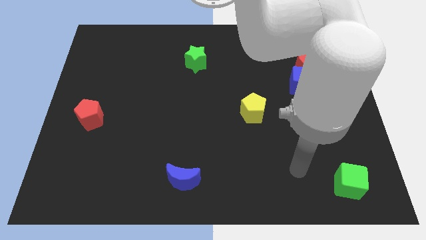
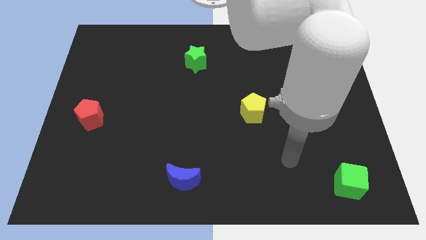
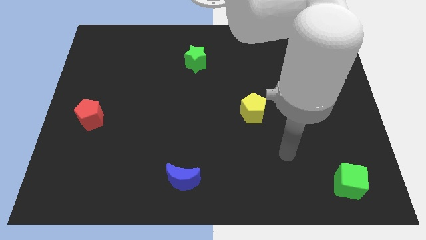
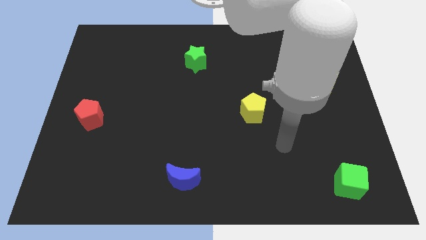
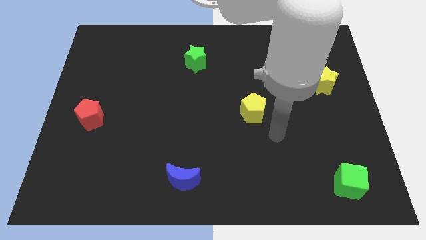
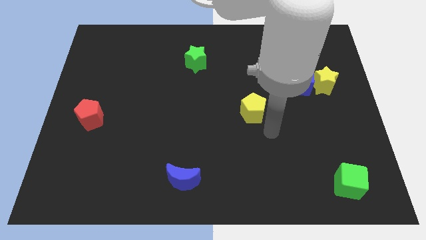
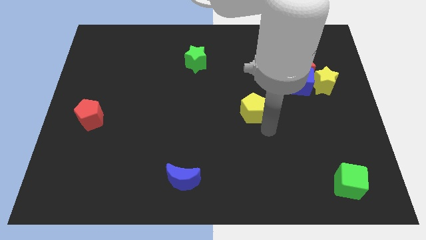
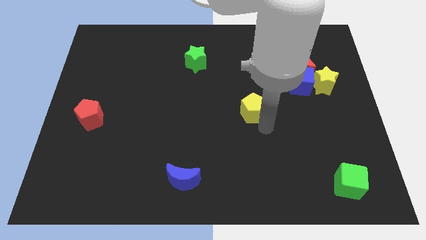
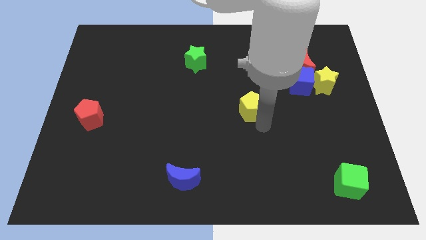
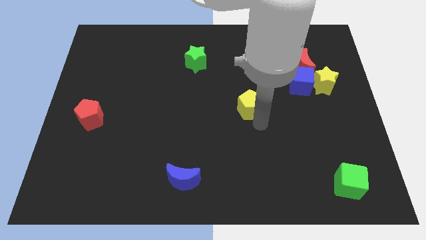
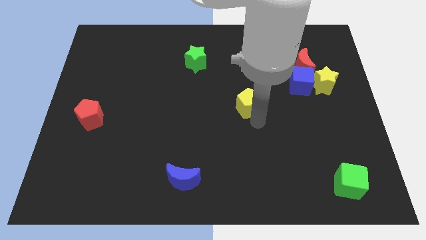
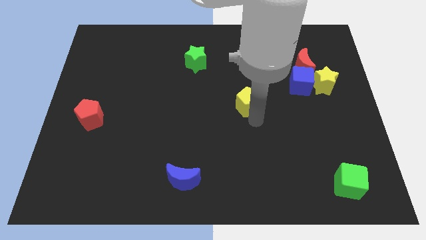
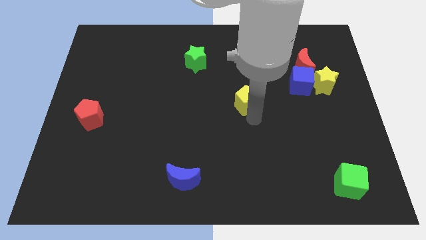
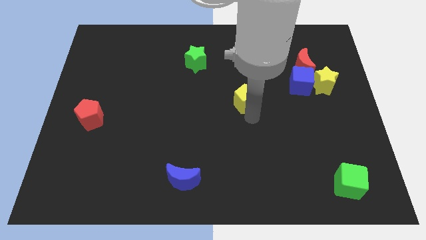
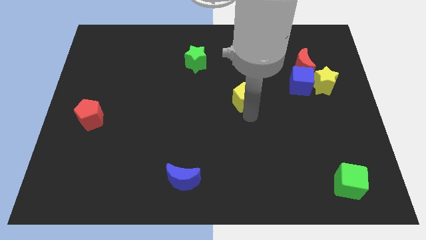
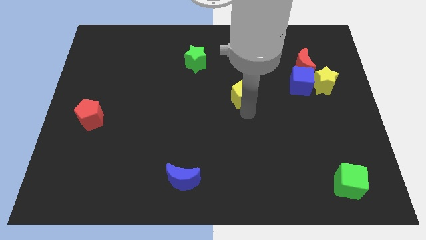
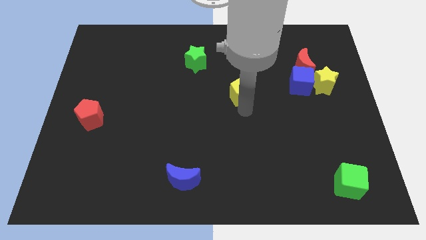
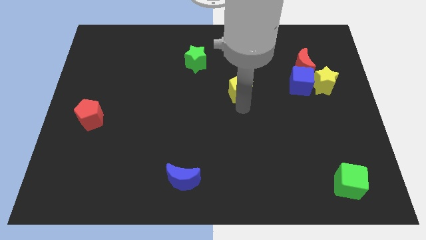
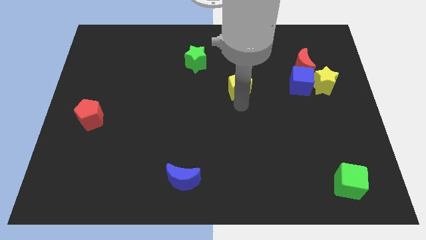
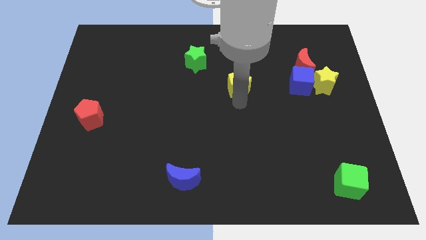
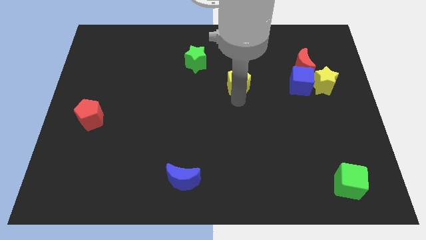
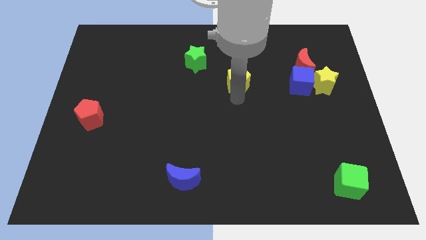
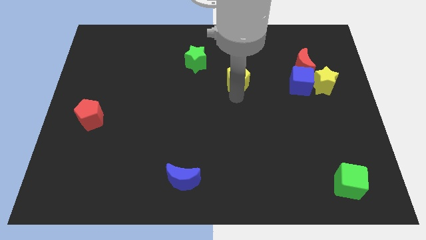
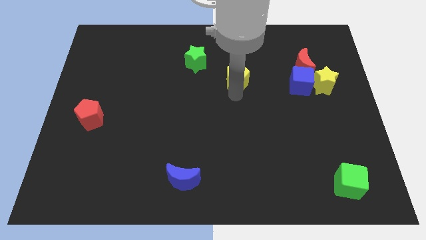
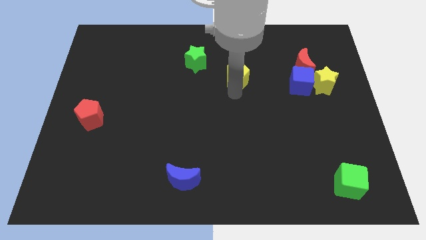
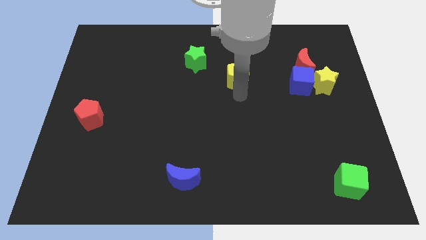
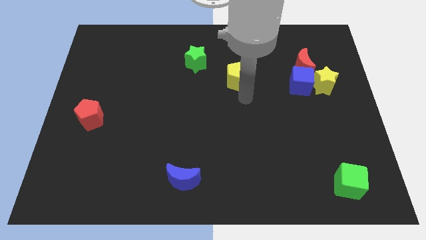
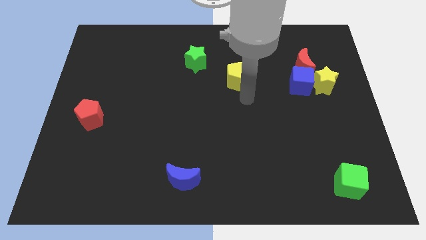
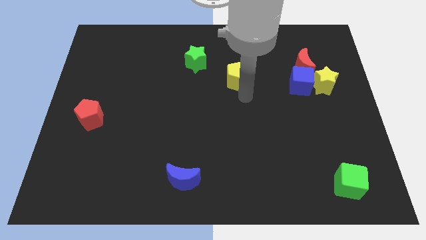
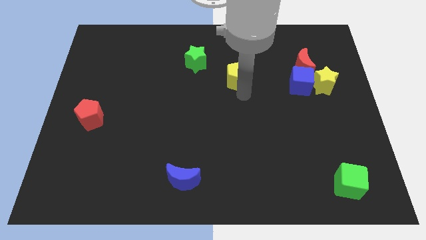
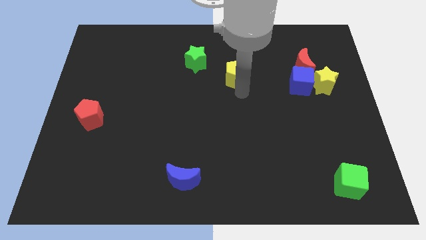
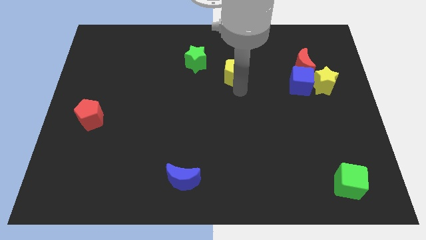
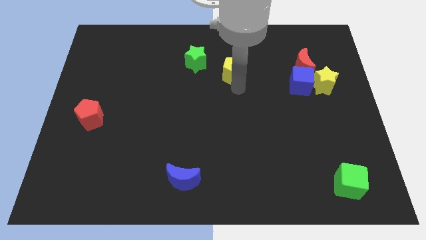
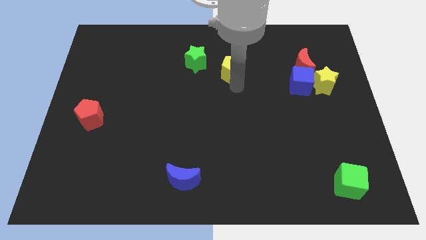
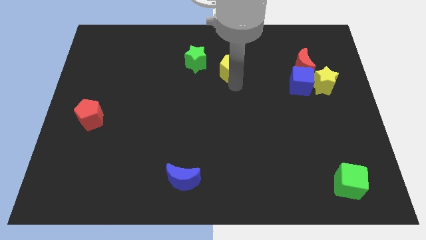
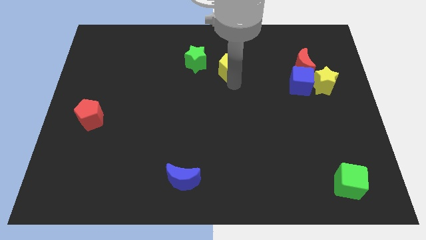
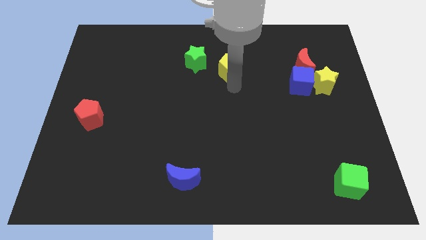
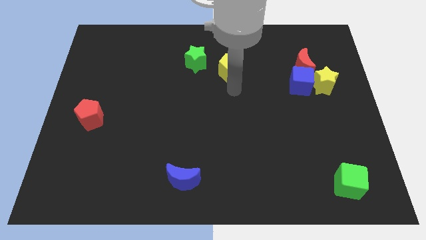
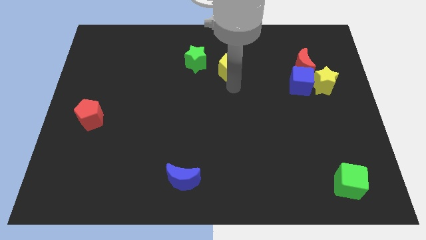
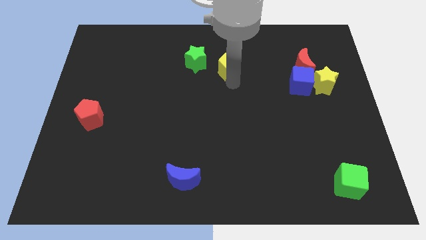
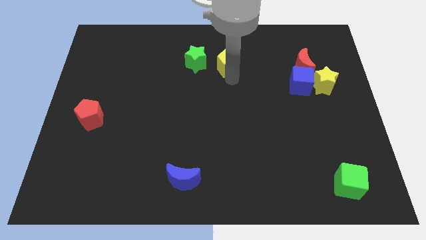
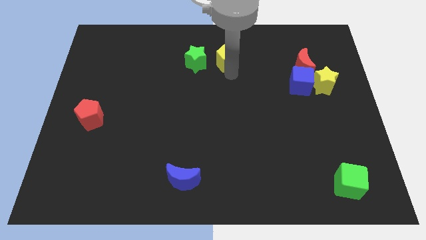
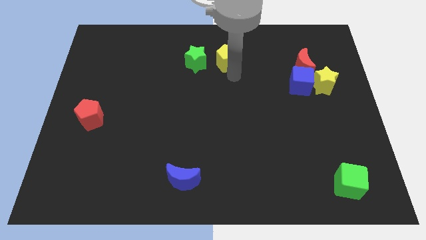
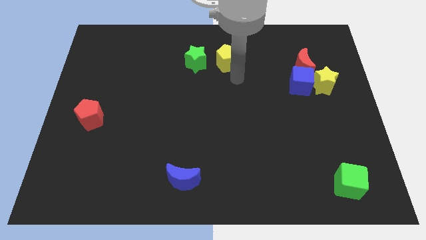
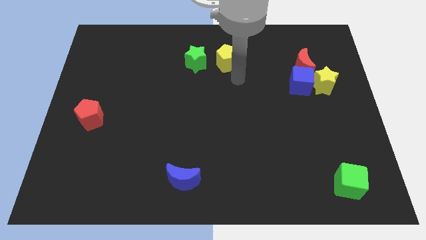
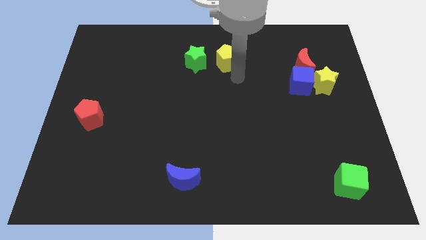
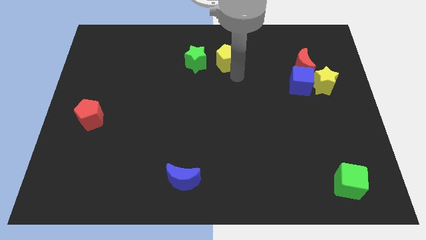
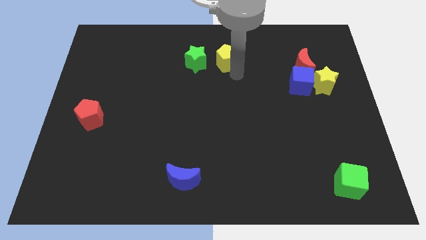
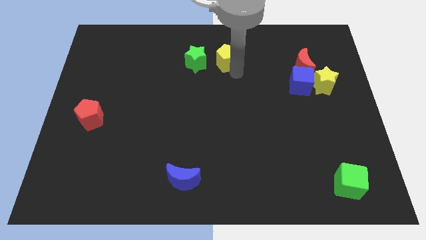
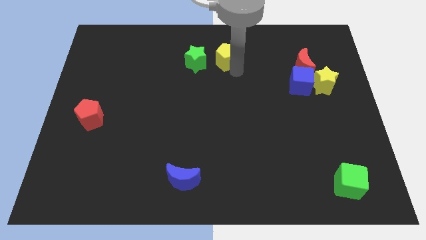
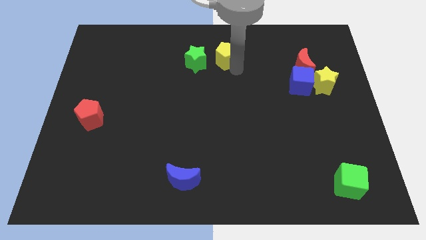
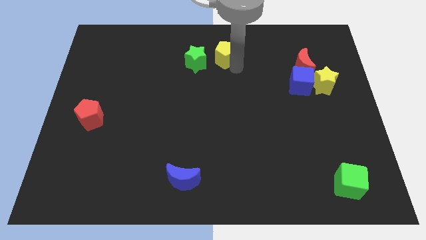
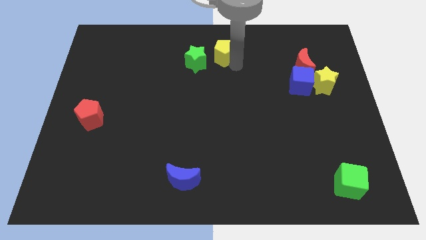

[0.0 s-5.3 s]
put the yellow pentagon to the top side
